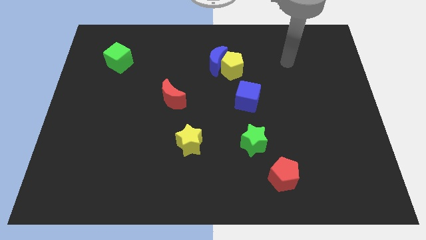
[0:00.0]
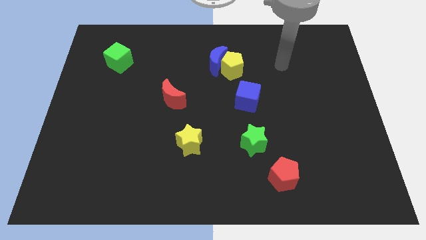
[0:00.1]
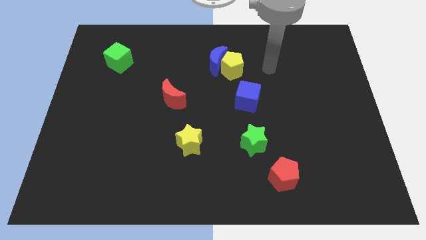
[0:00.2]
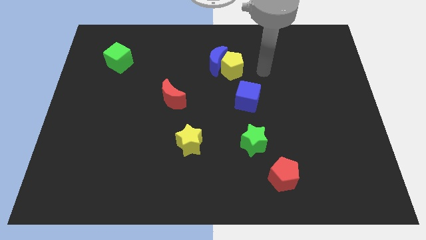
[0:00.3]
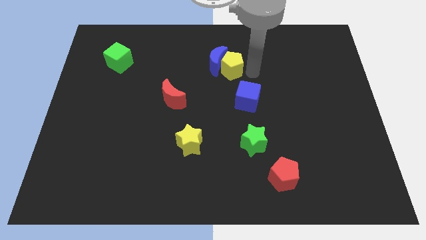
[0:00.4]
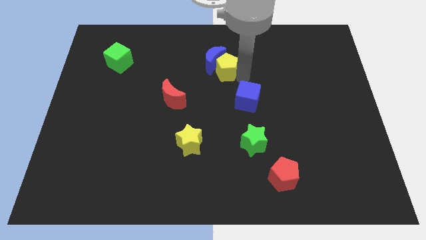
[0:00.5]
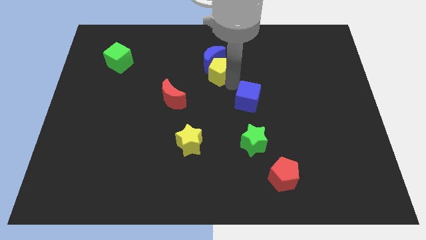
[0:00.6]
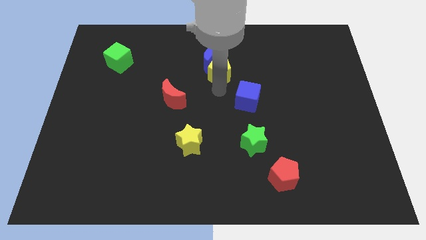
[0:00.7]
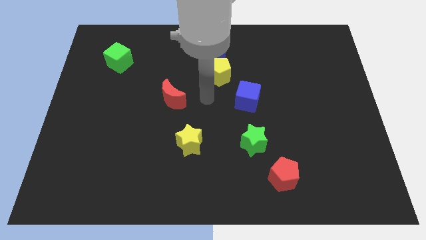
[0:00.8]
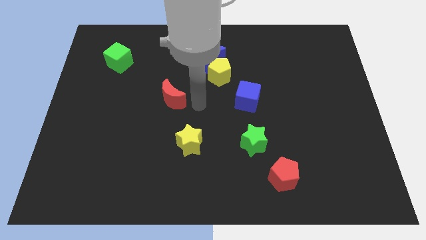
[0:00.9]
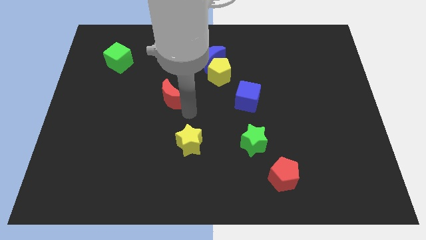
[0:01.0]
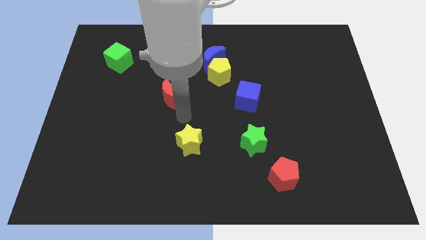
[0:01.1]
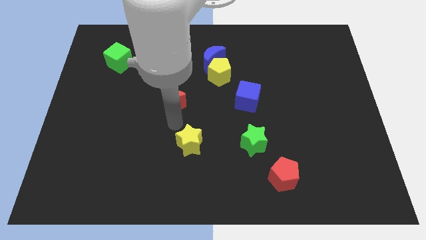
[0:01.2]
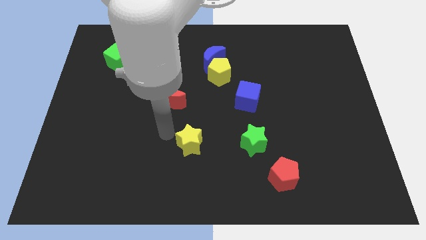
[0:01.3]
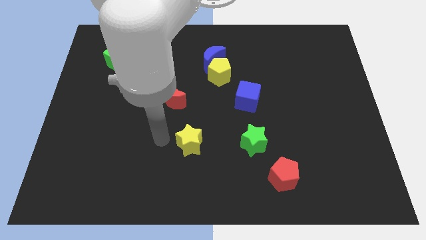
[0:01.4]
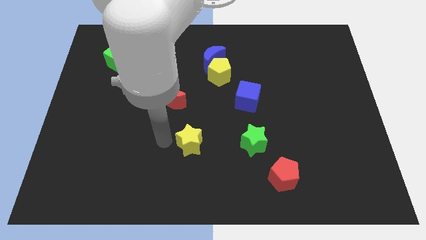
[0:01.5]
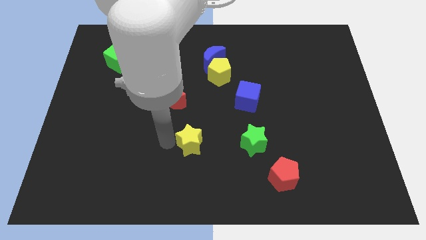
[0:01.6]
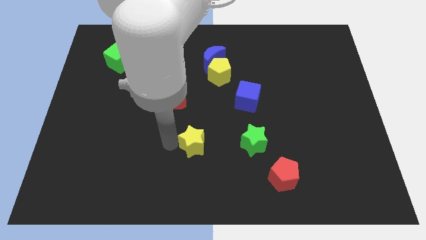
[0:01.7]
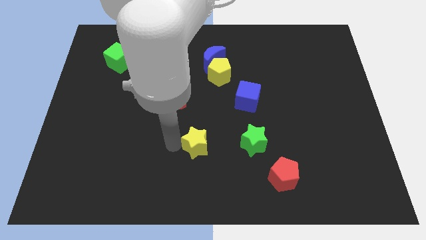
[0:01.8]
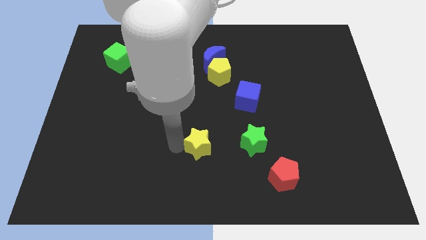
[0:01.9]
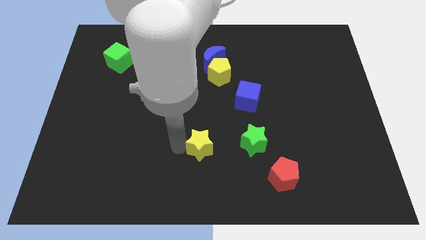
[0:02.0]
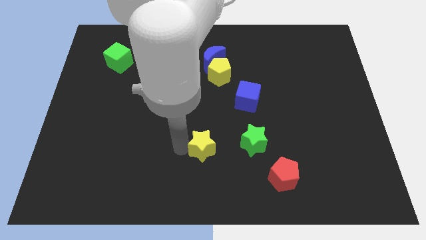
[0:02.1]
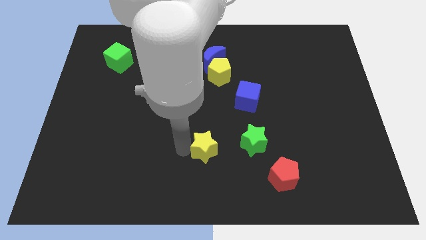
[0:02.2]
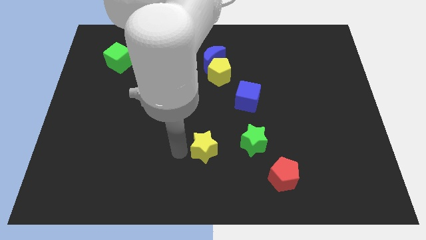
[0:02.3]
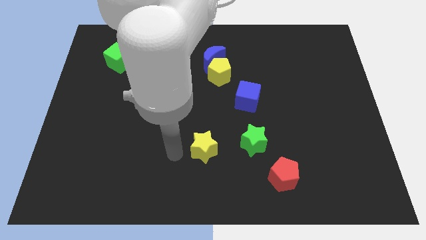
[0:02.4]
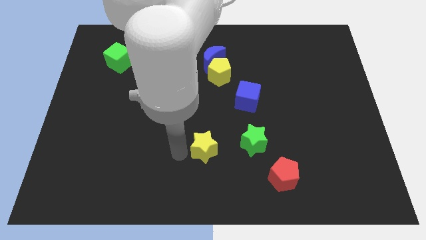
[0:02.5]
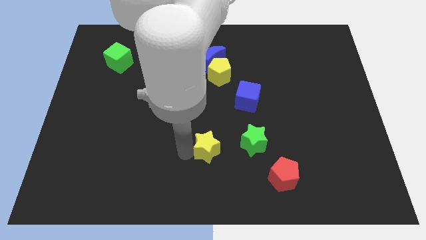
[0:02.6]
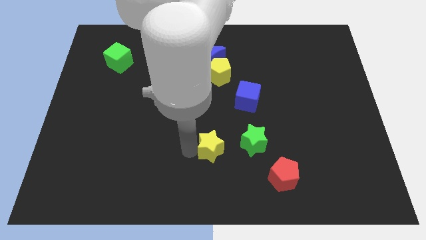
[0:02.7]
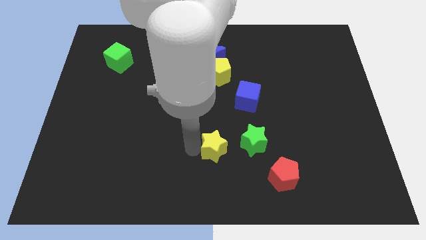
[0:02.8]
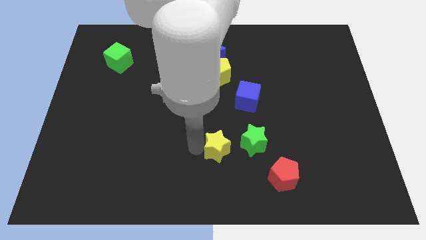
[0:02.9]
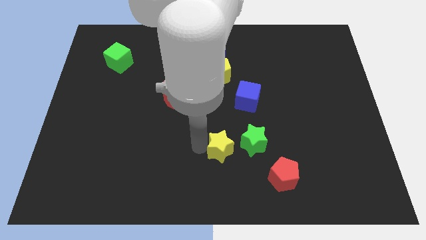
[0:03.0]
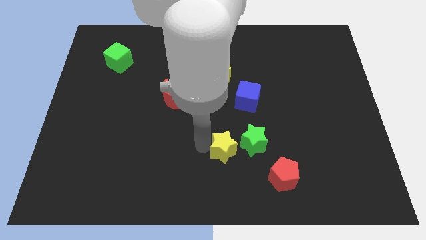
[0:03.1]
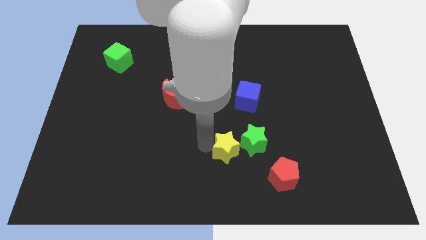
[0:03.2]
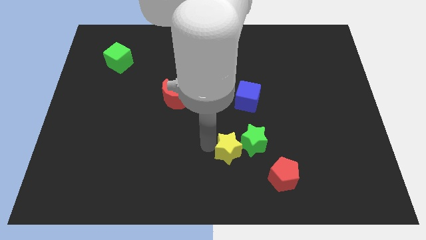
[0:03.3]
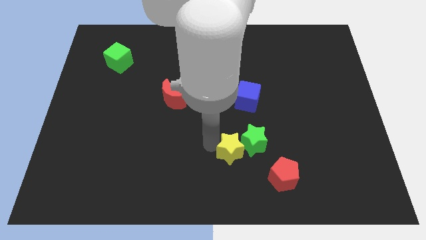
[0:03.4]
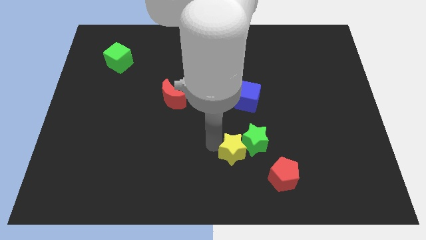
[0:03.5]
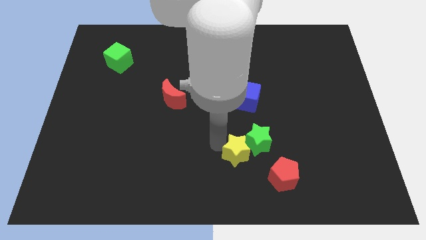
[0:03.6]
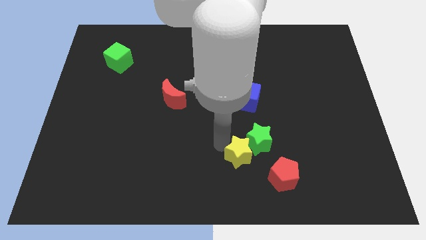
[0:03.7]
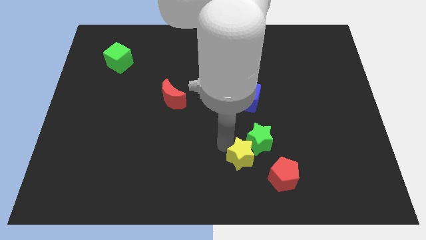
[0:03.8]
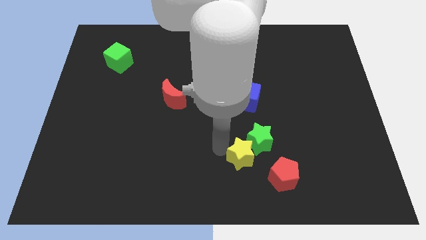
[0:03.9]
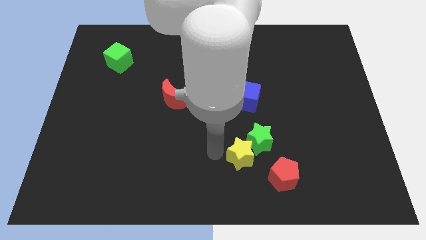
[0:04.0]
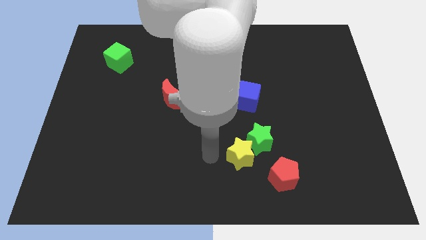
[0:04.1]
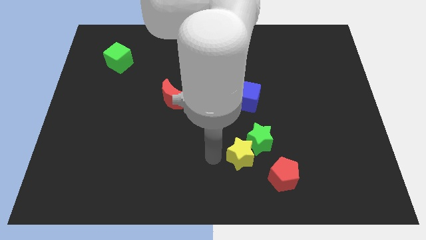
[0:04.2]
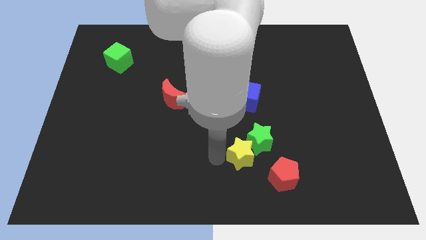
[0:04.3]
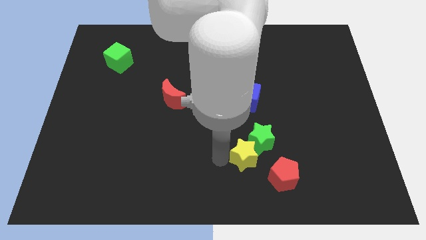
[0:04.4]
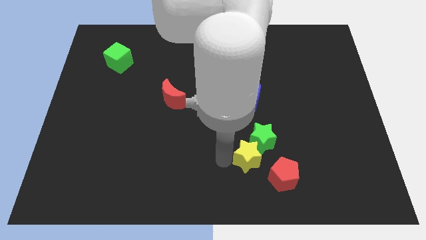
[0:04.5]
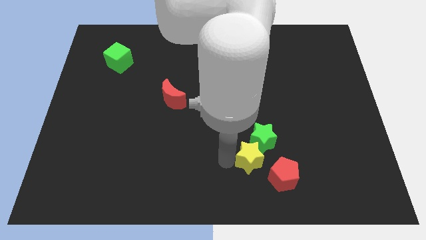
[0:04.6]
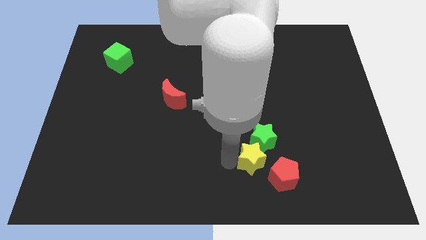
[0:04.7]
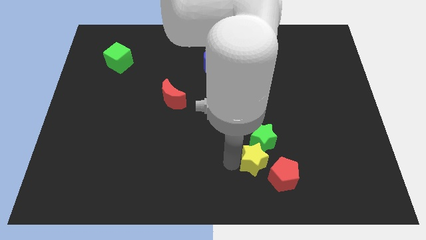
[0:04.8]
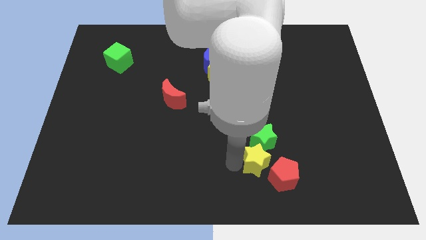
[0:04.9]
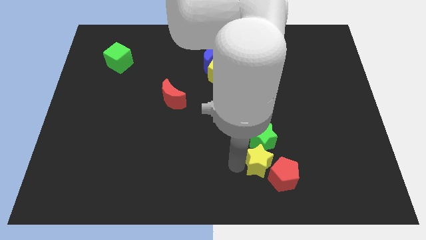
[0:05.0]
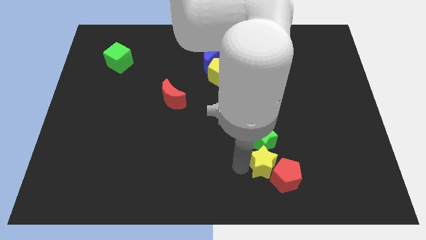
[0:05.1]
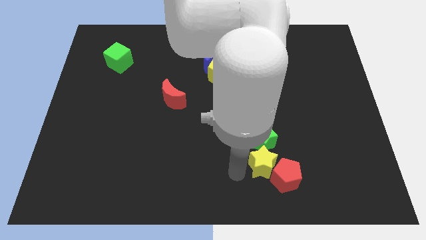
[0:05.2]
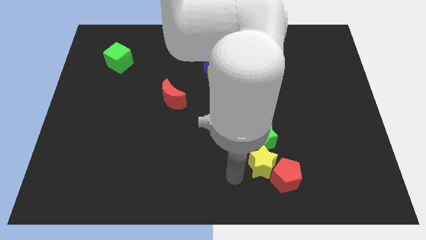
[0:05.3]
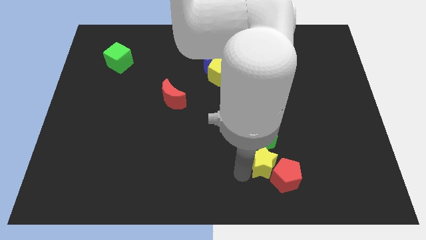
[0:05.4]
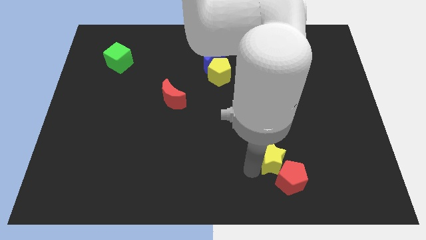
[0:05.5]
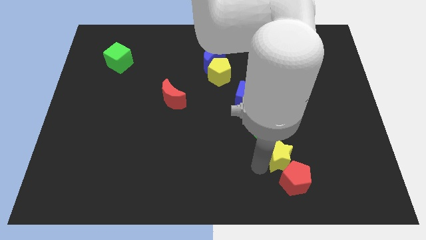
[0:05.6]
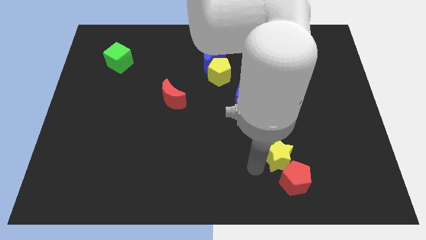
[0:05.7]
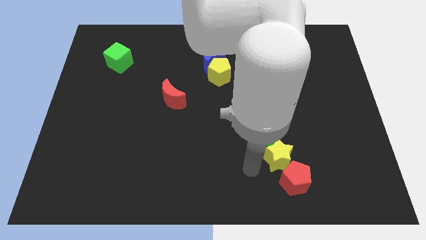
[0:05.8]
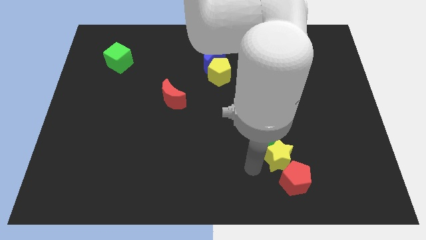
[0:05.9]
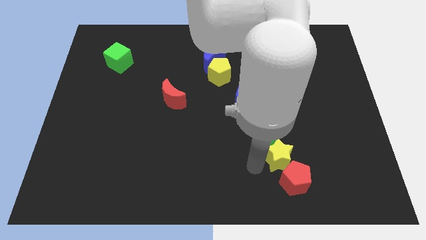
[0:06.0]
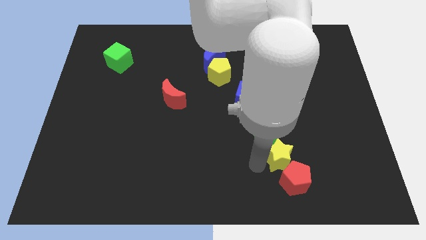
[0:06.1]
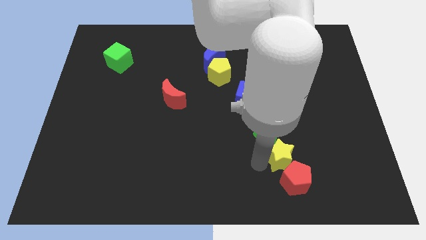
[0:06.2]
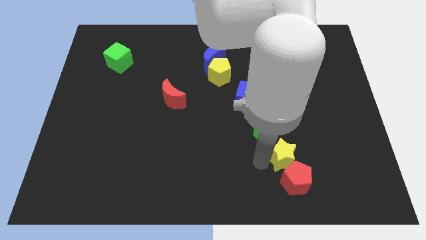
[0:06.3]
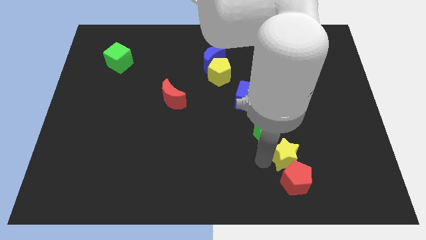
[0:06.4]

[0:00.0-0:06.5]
slide the yellow star right

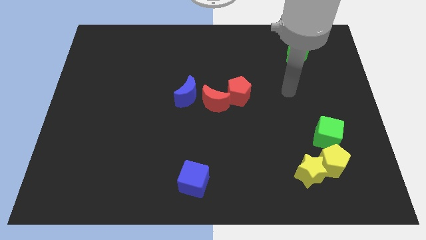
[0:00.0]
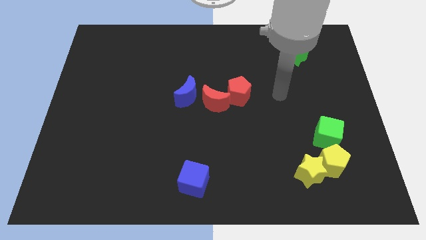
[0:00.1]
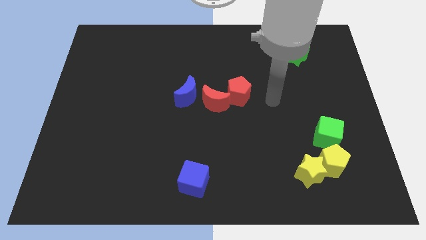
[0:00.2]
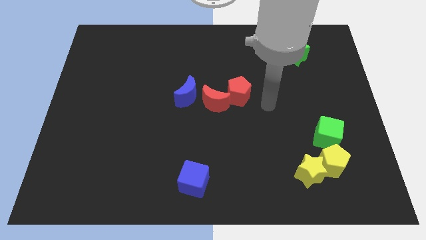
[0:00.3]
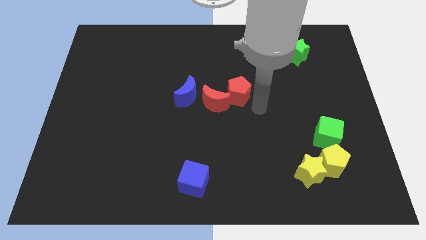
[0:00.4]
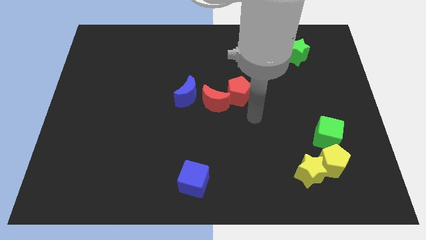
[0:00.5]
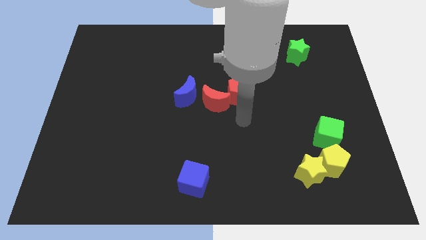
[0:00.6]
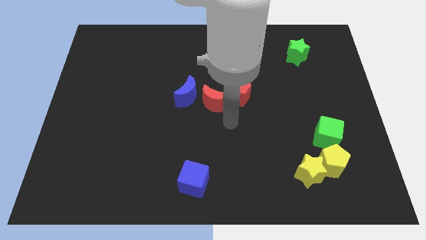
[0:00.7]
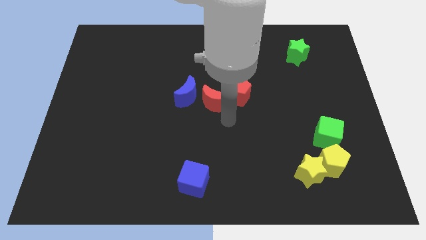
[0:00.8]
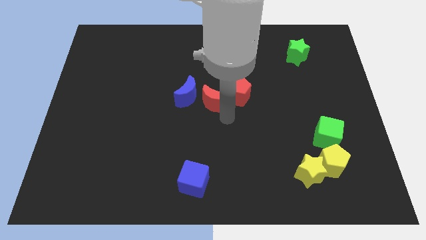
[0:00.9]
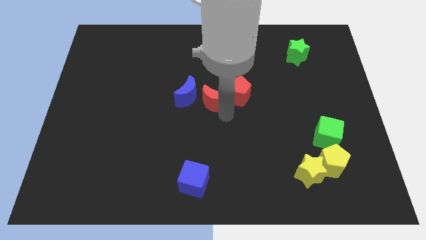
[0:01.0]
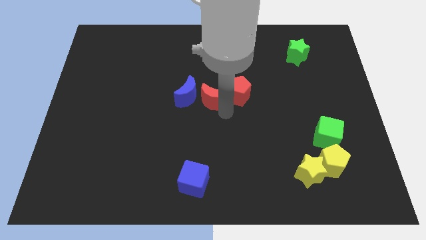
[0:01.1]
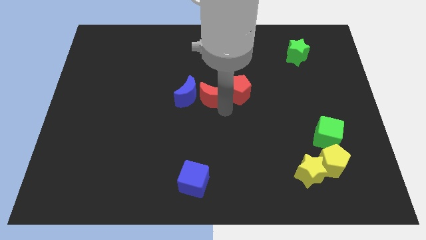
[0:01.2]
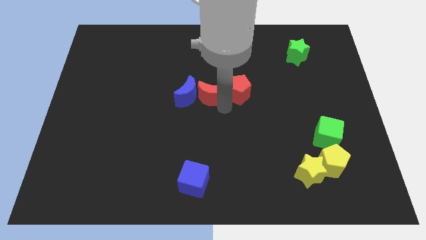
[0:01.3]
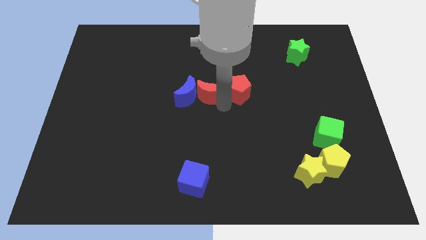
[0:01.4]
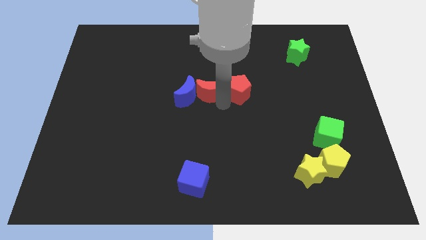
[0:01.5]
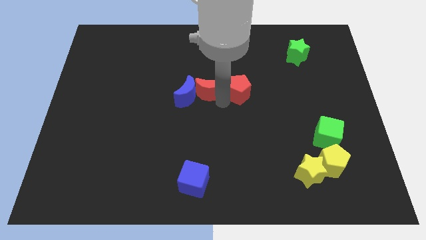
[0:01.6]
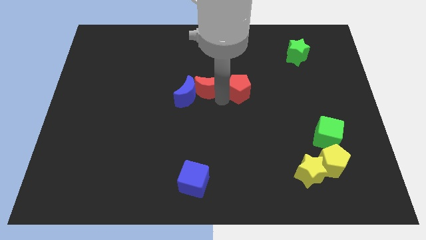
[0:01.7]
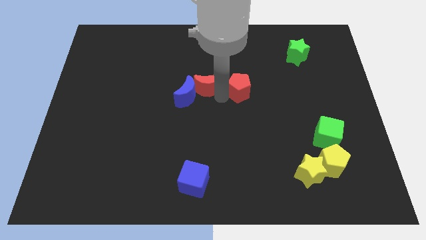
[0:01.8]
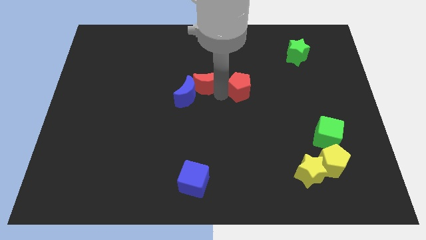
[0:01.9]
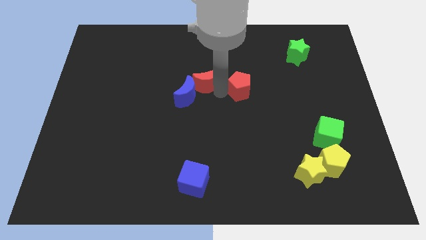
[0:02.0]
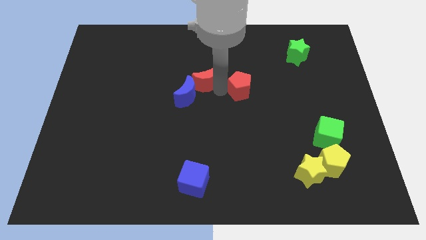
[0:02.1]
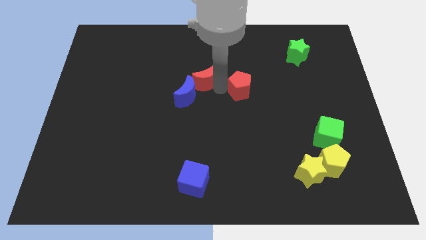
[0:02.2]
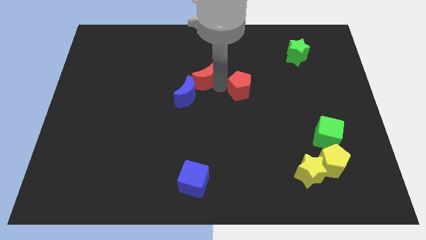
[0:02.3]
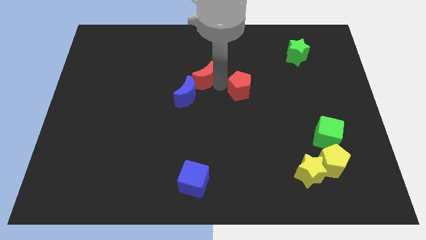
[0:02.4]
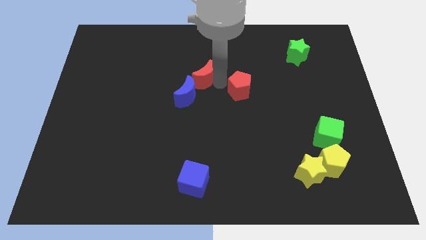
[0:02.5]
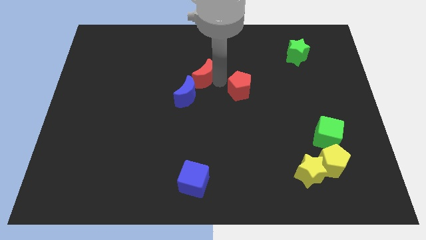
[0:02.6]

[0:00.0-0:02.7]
slide the red moon a bit diagonally upwards and left
